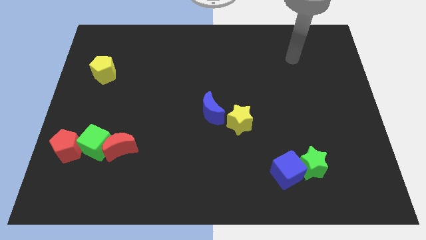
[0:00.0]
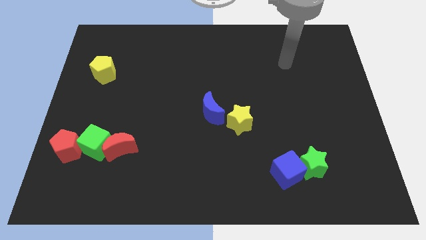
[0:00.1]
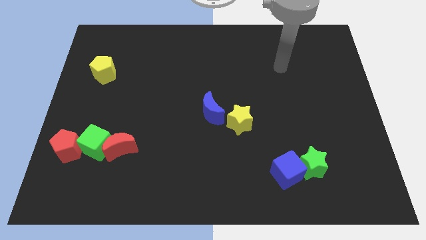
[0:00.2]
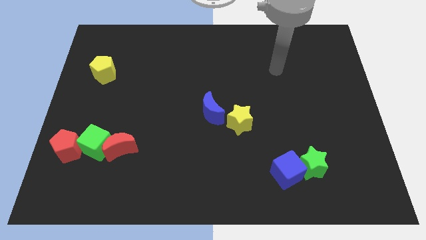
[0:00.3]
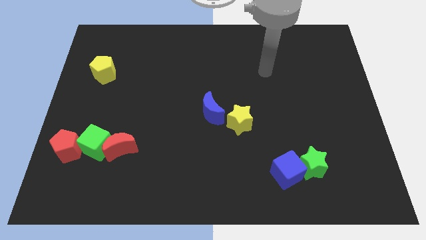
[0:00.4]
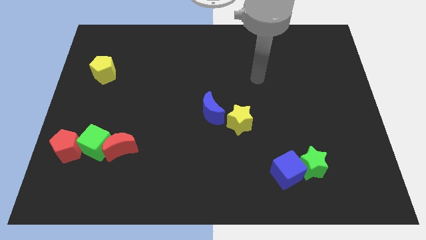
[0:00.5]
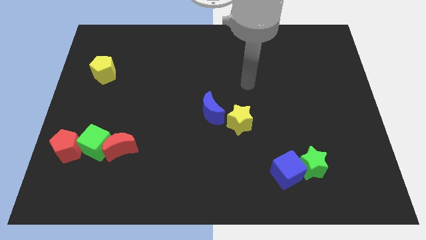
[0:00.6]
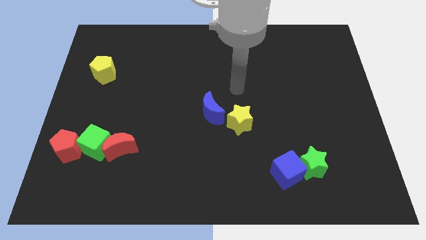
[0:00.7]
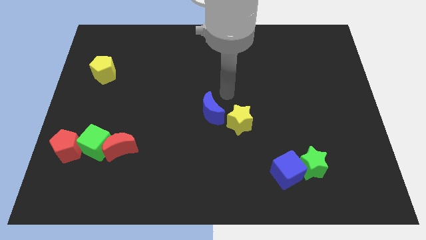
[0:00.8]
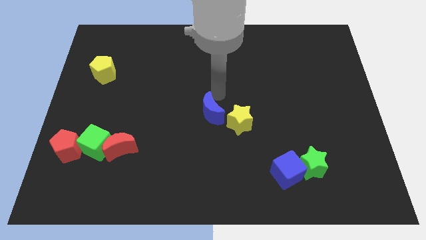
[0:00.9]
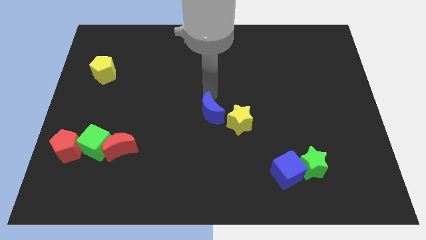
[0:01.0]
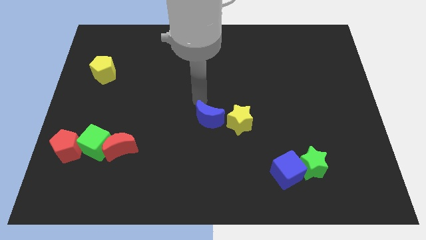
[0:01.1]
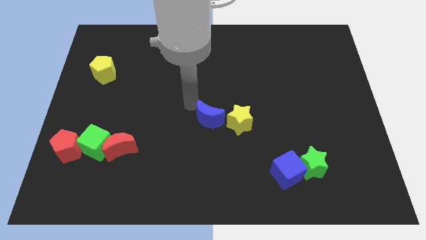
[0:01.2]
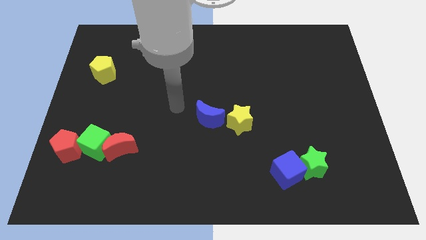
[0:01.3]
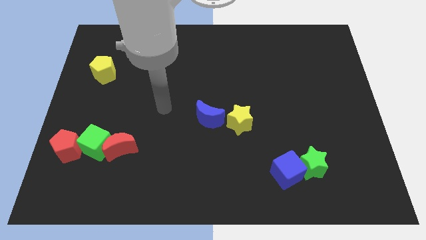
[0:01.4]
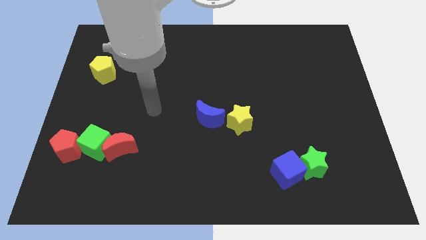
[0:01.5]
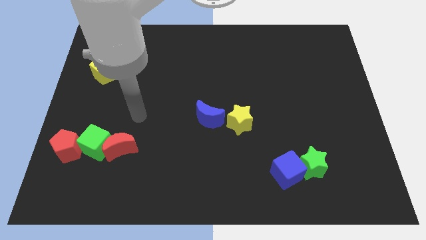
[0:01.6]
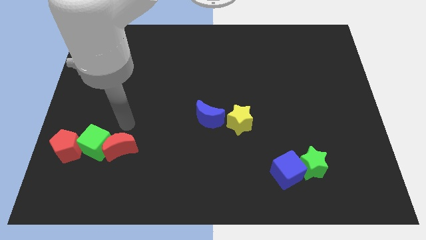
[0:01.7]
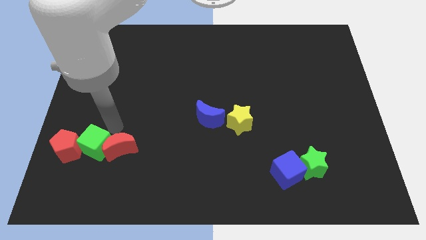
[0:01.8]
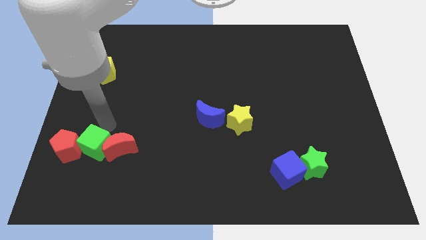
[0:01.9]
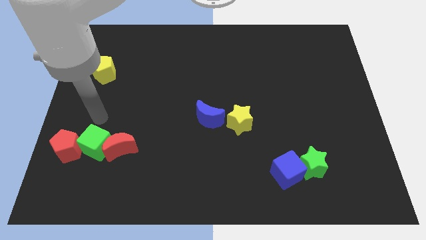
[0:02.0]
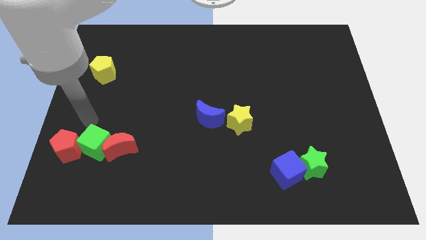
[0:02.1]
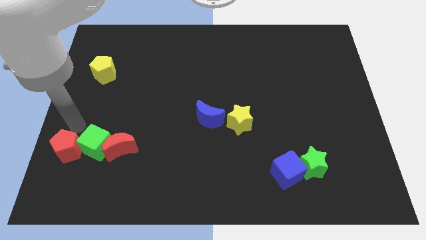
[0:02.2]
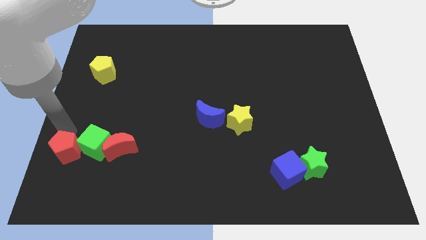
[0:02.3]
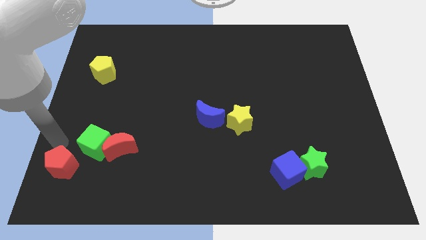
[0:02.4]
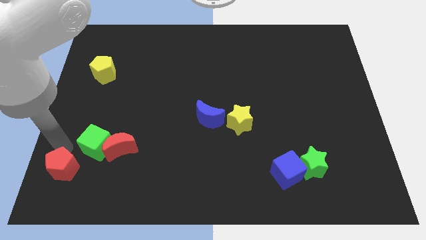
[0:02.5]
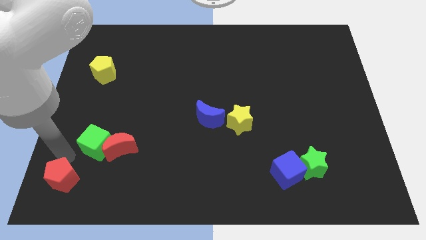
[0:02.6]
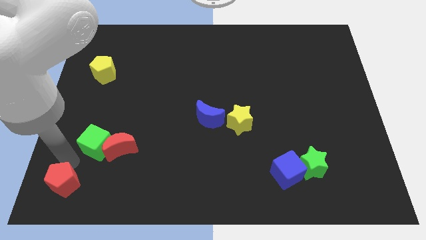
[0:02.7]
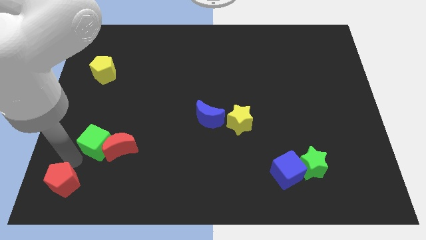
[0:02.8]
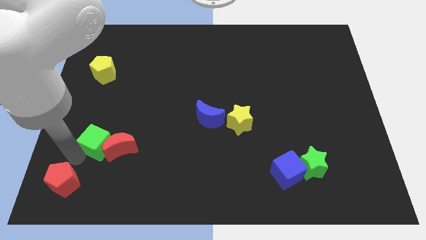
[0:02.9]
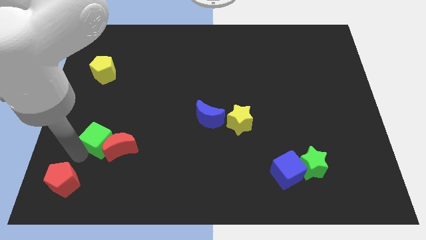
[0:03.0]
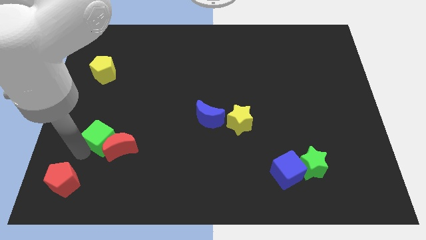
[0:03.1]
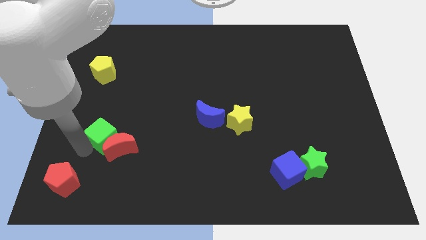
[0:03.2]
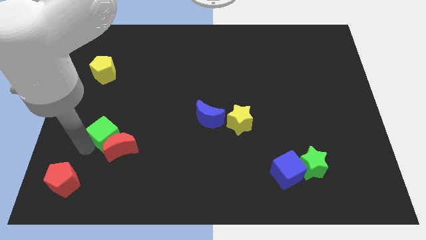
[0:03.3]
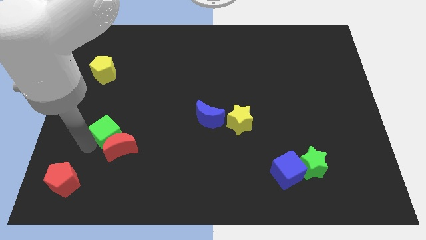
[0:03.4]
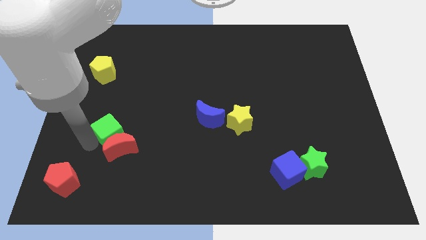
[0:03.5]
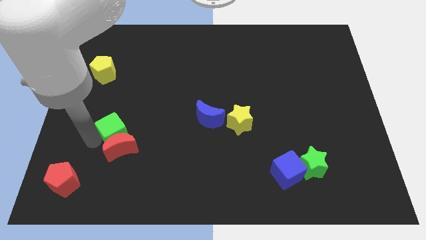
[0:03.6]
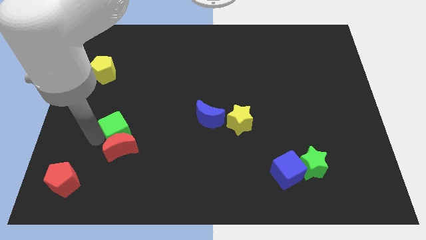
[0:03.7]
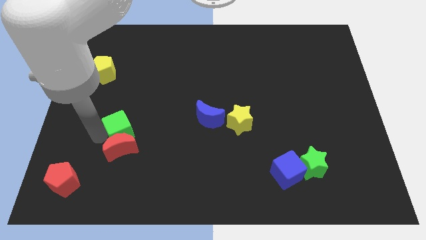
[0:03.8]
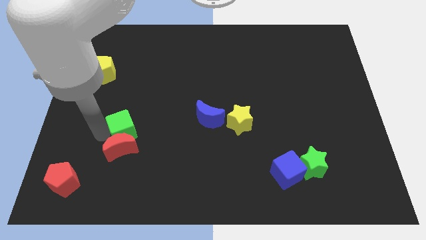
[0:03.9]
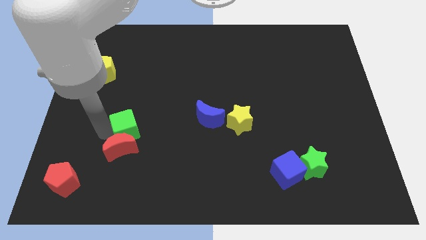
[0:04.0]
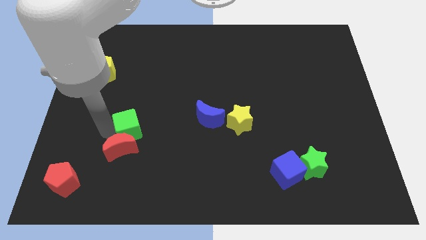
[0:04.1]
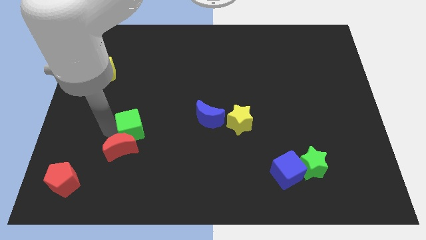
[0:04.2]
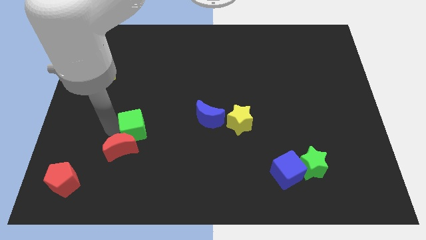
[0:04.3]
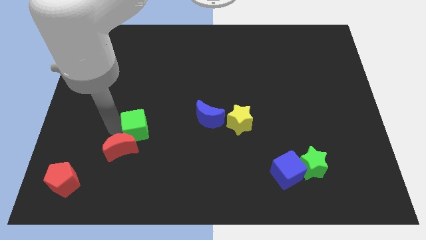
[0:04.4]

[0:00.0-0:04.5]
push the green cube a bit right

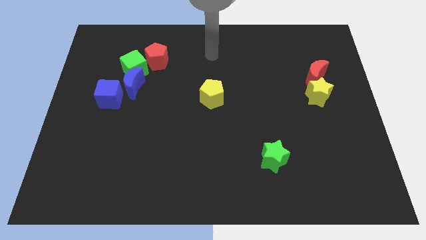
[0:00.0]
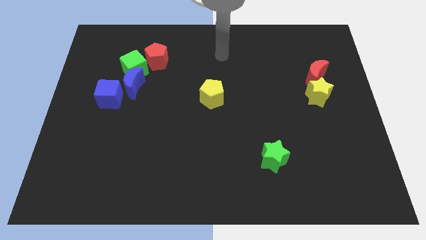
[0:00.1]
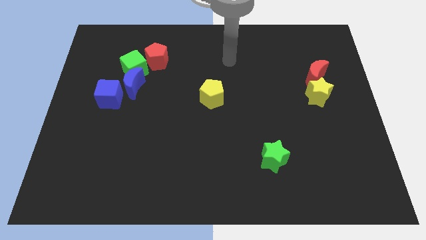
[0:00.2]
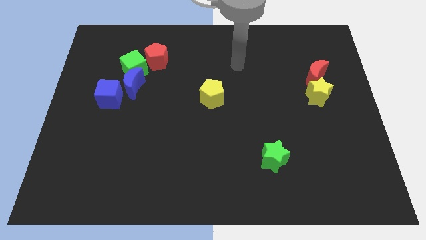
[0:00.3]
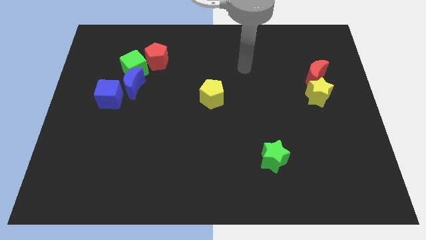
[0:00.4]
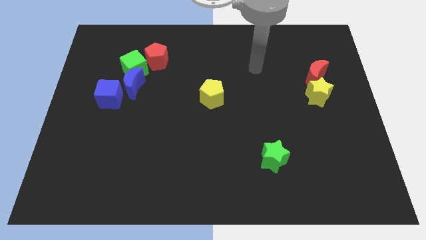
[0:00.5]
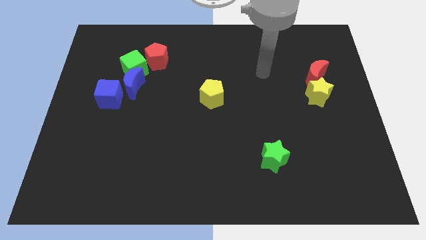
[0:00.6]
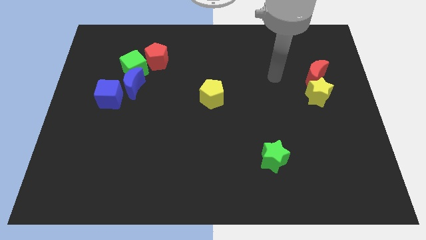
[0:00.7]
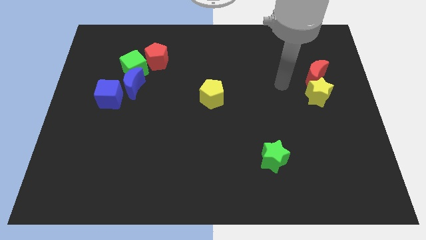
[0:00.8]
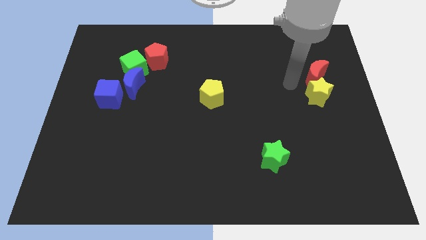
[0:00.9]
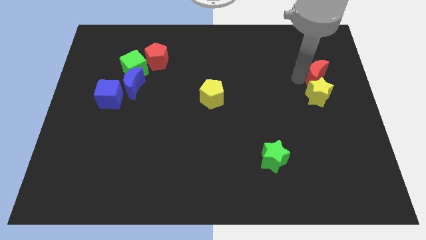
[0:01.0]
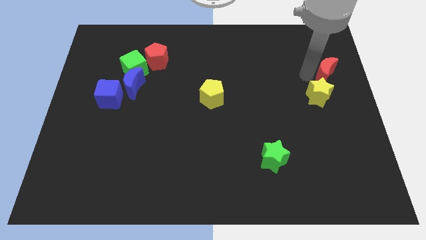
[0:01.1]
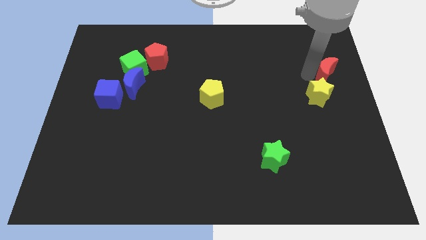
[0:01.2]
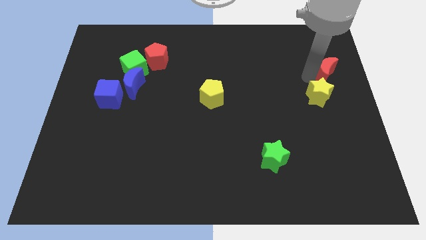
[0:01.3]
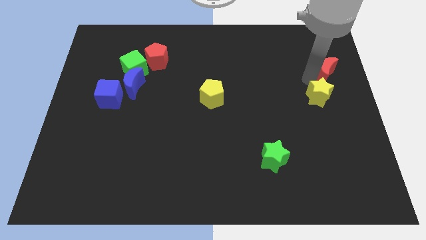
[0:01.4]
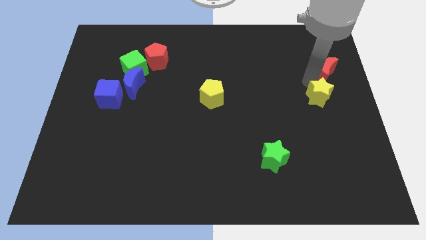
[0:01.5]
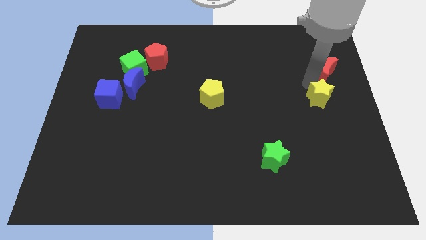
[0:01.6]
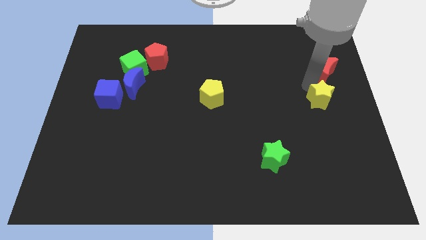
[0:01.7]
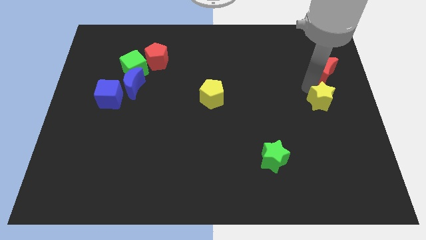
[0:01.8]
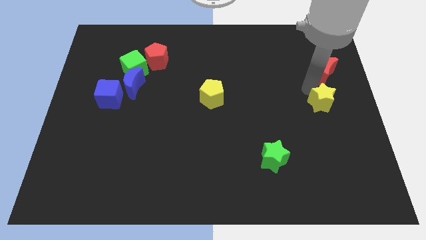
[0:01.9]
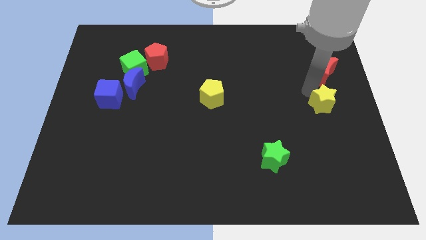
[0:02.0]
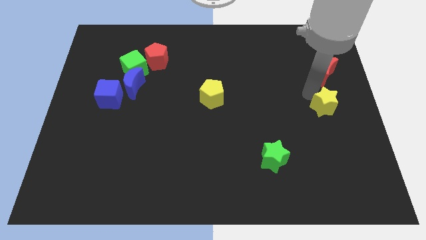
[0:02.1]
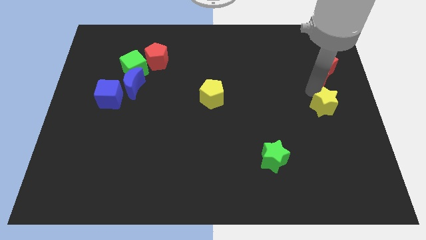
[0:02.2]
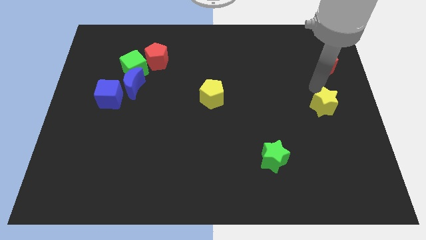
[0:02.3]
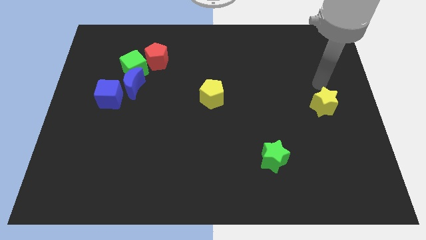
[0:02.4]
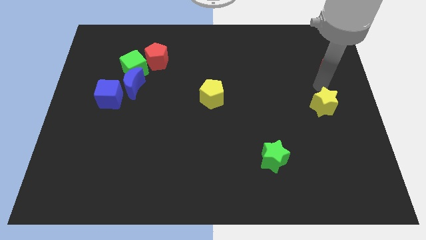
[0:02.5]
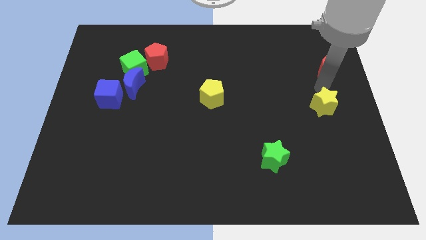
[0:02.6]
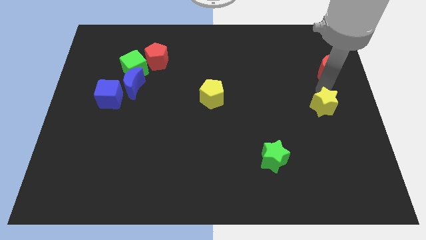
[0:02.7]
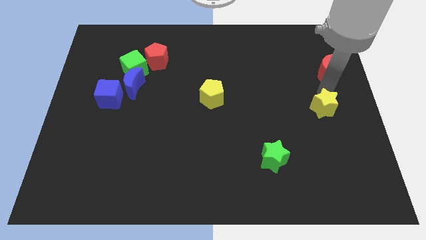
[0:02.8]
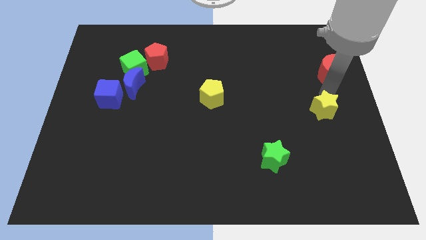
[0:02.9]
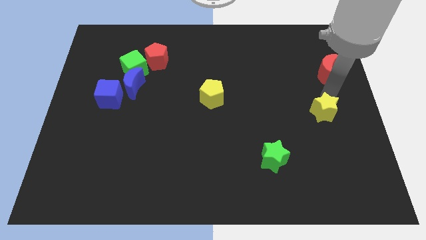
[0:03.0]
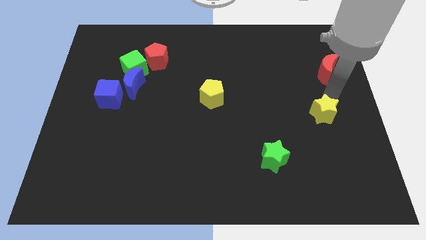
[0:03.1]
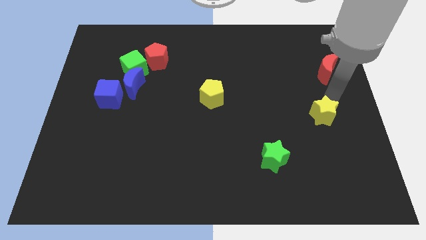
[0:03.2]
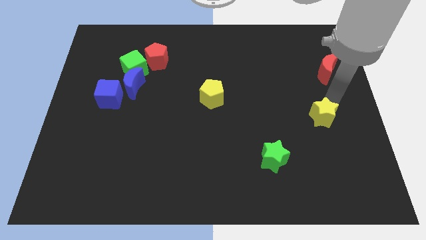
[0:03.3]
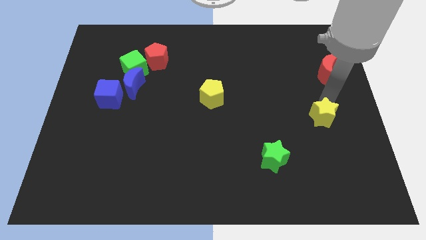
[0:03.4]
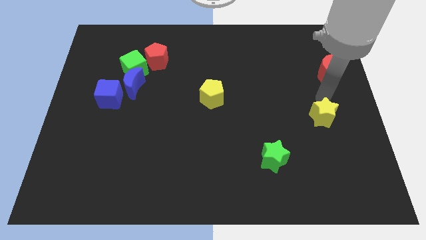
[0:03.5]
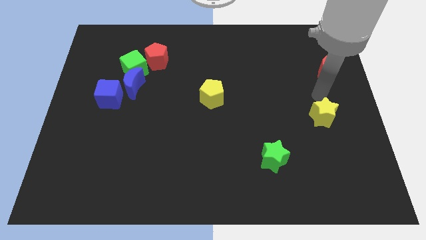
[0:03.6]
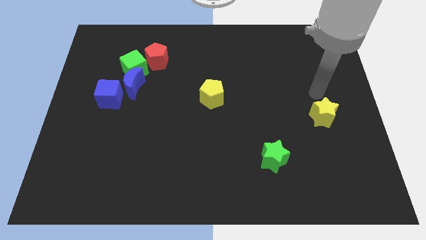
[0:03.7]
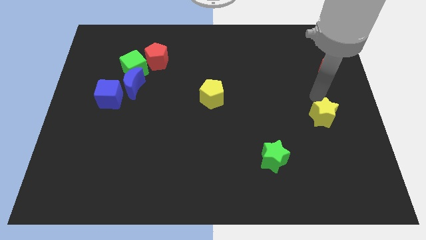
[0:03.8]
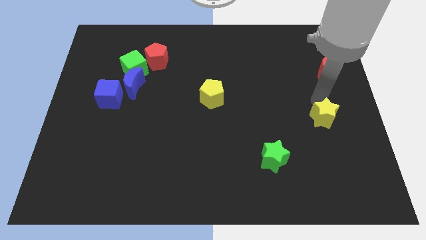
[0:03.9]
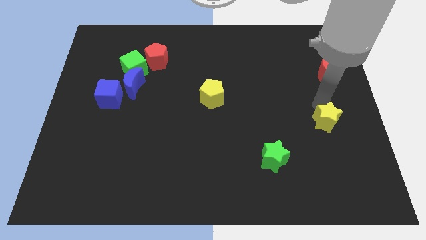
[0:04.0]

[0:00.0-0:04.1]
move the yellow star somewhat down
